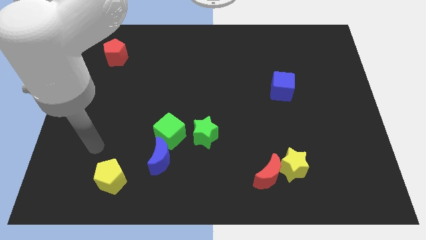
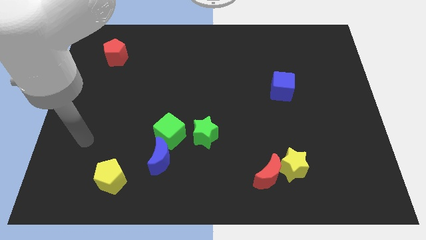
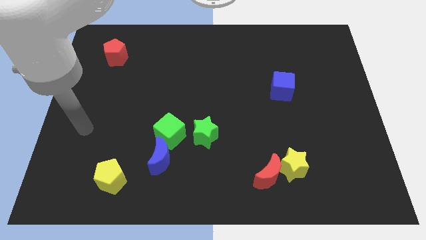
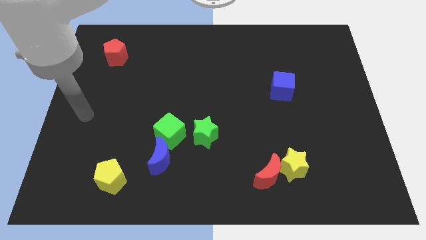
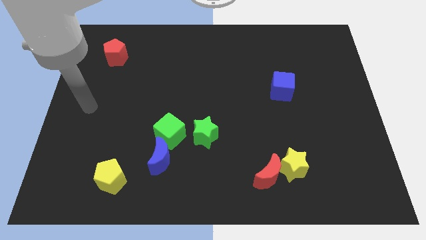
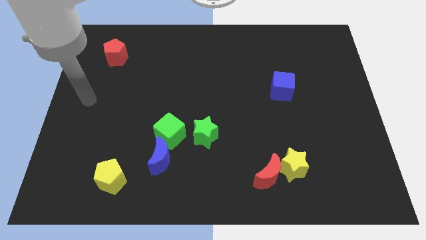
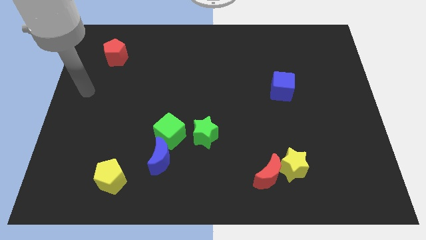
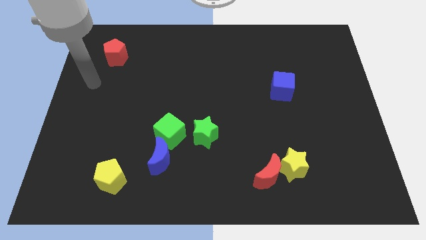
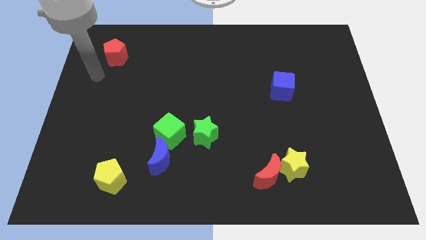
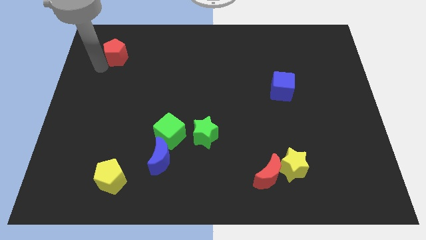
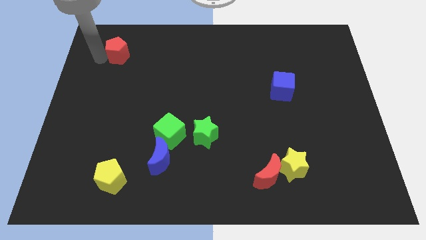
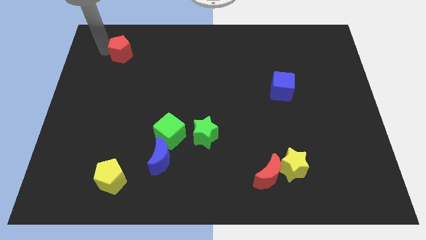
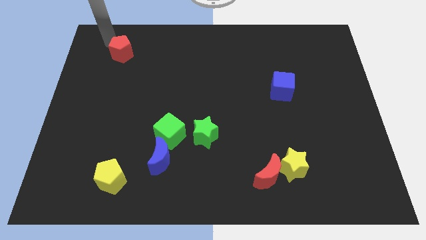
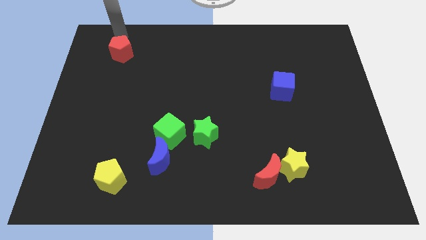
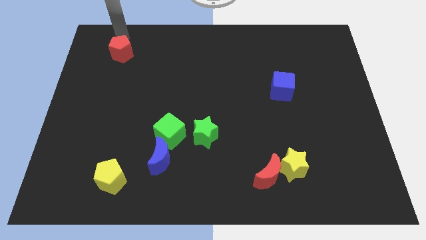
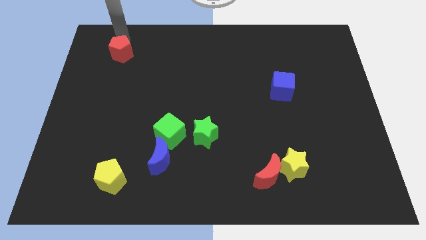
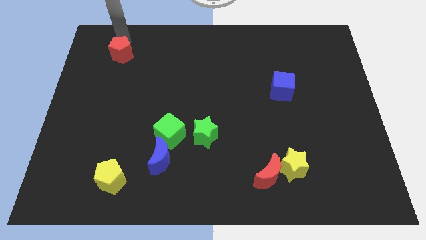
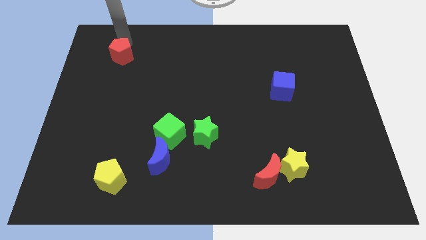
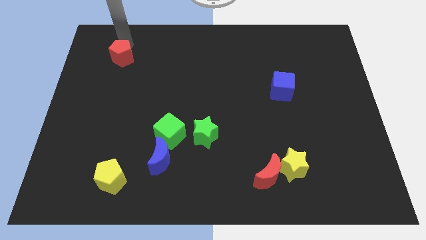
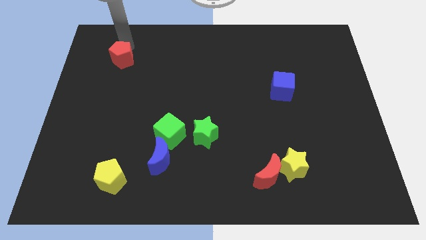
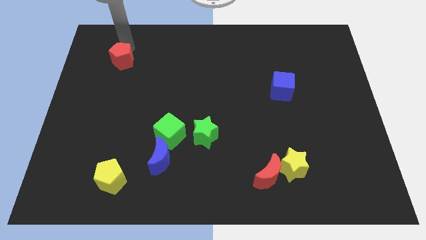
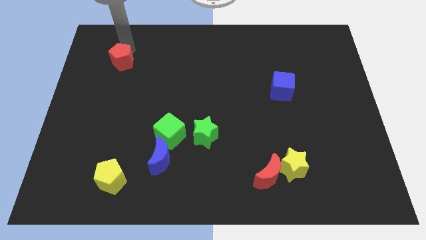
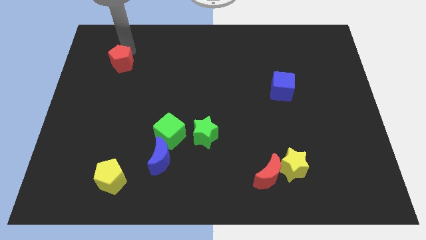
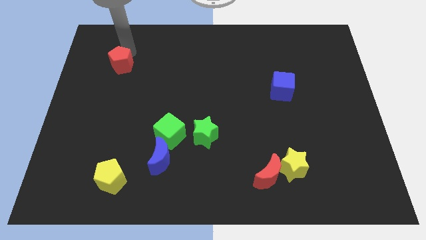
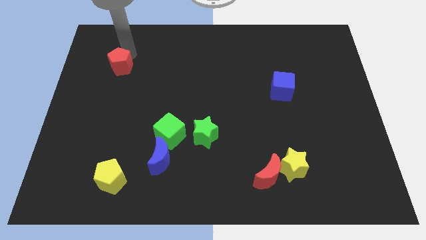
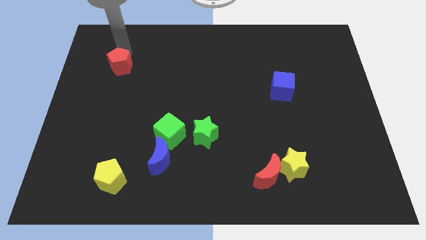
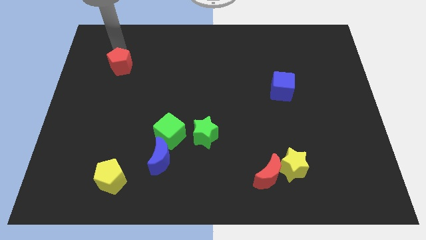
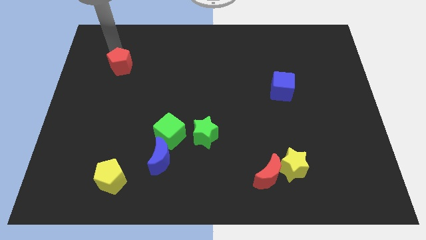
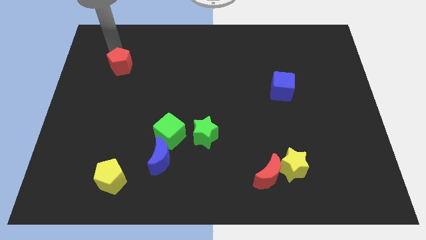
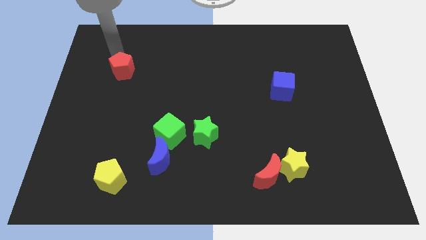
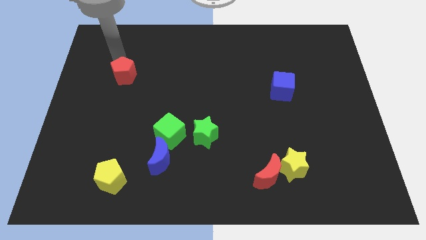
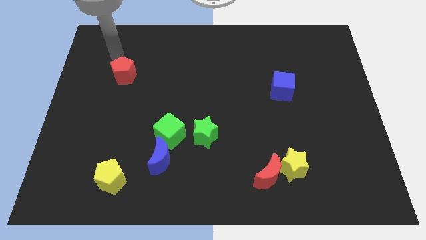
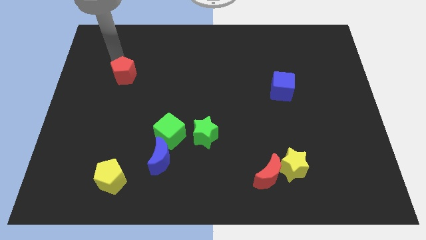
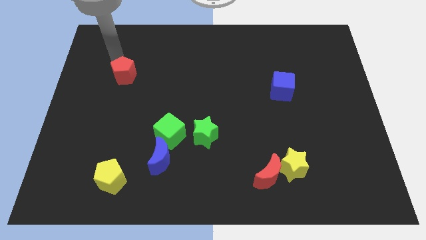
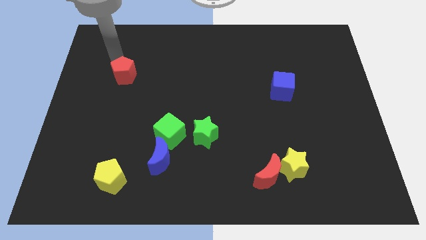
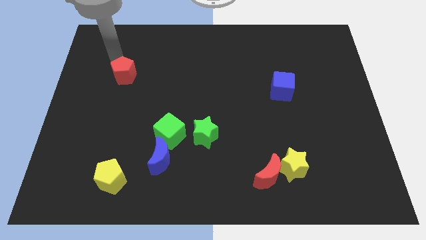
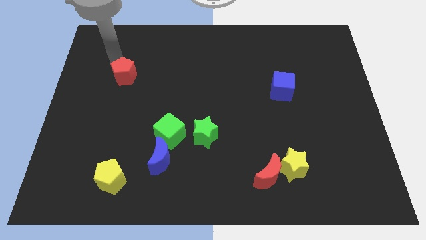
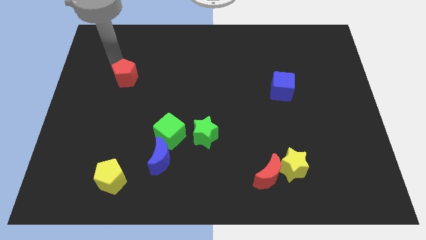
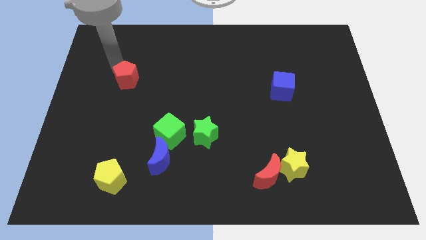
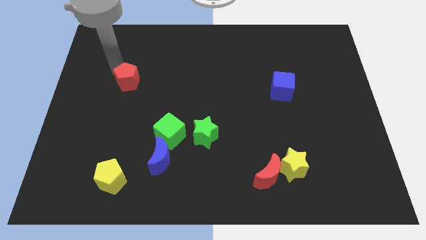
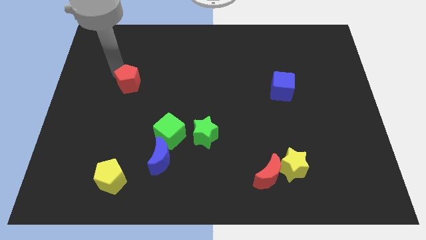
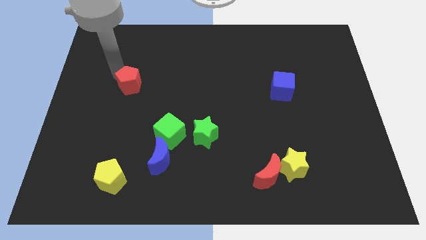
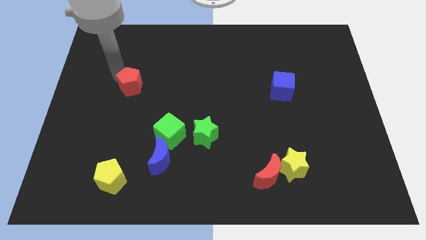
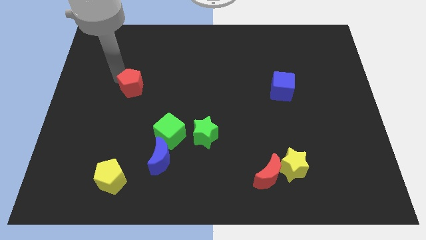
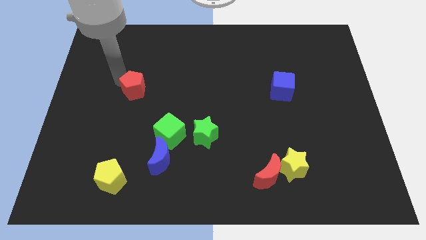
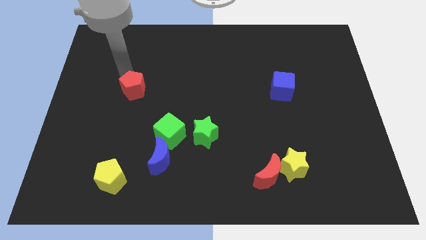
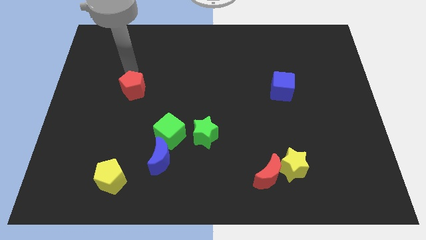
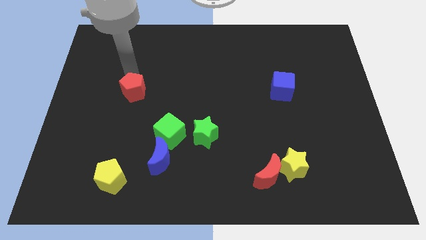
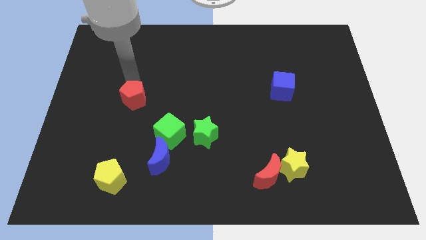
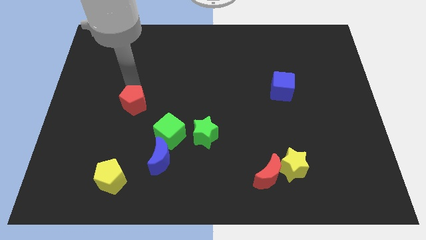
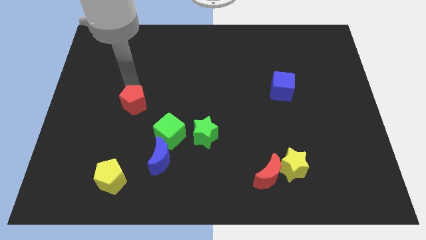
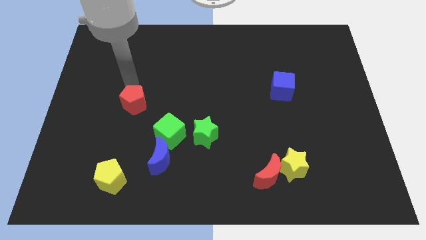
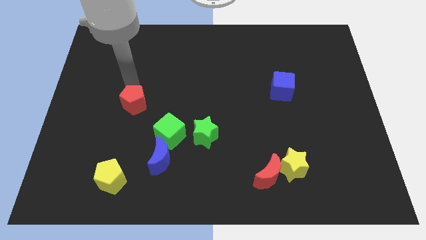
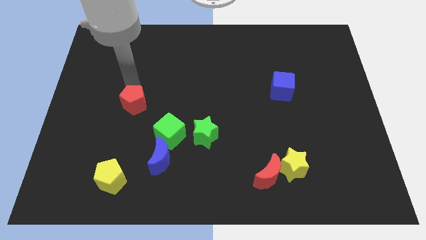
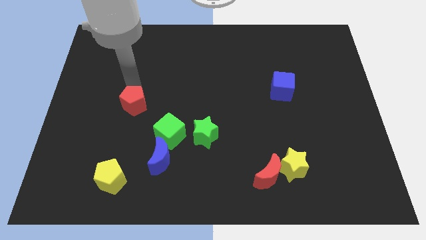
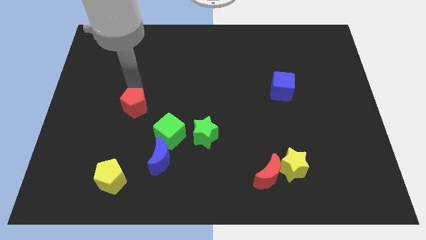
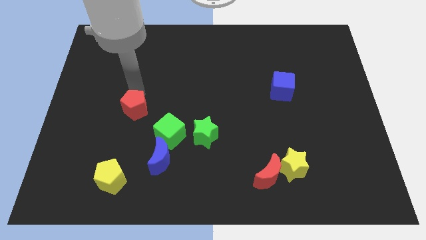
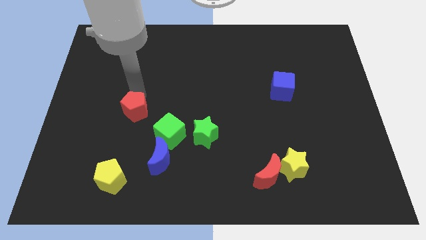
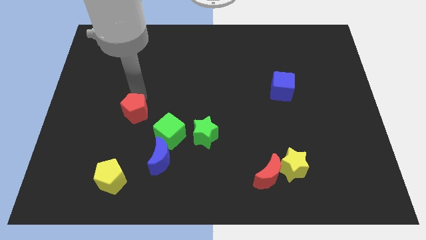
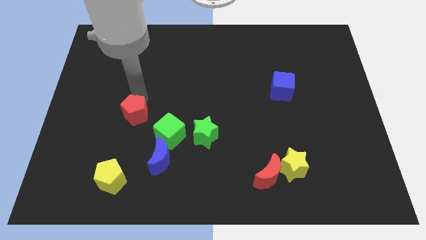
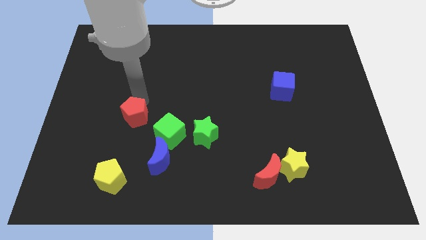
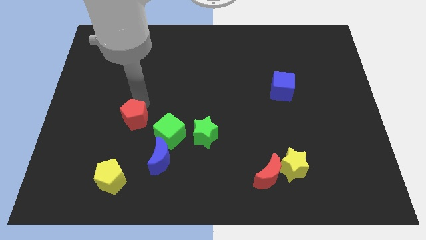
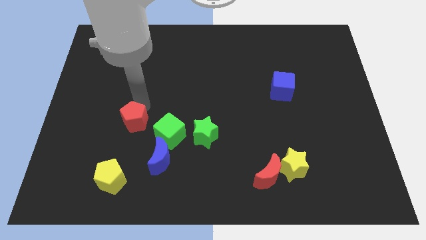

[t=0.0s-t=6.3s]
move the red pentagon to the top left side of the blue moon

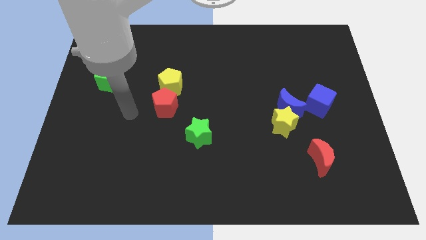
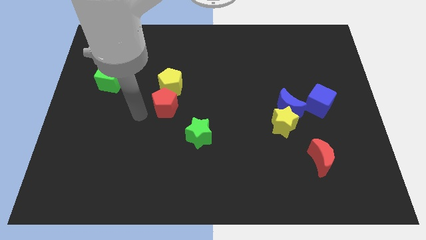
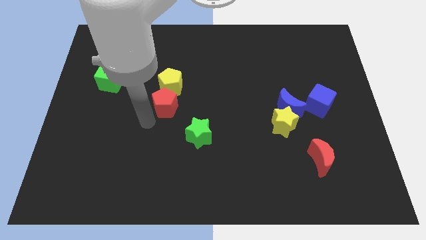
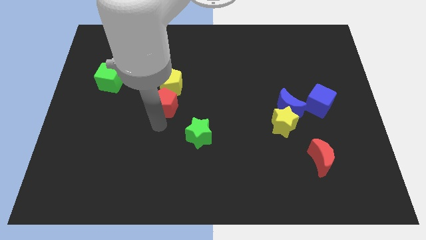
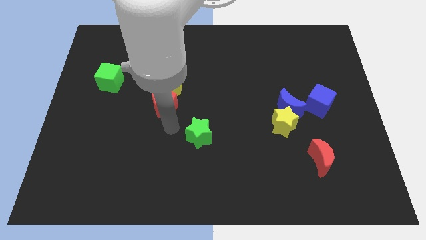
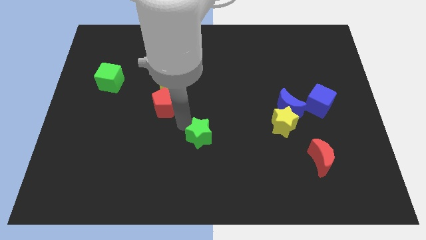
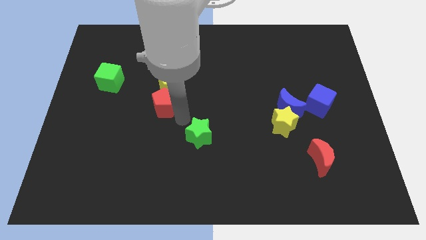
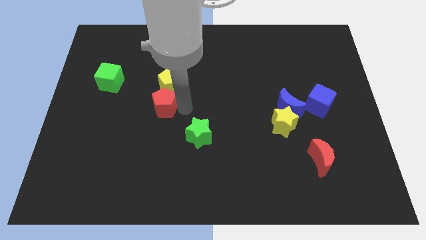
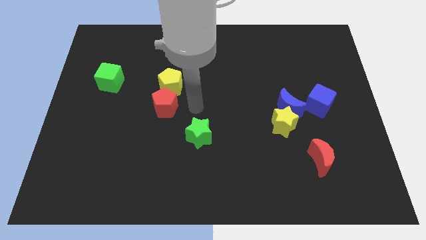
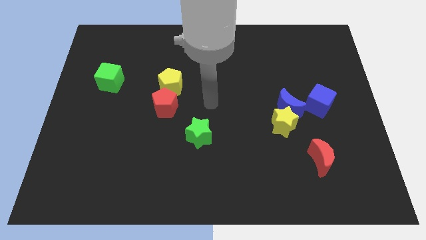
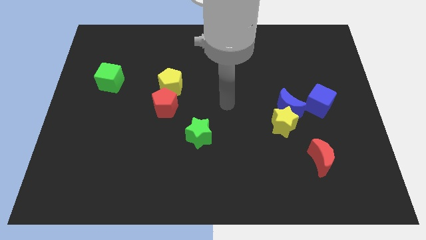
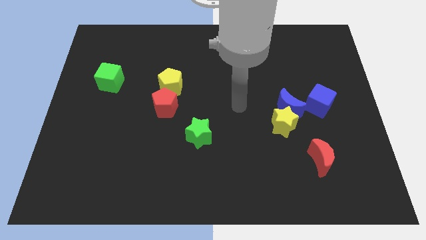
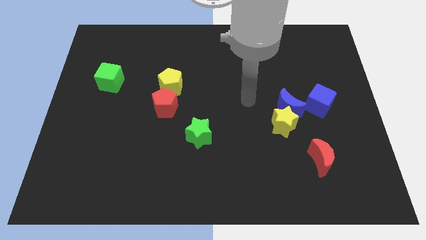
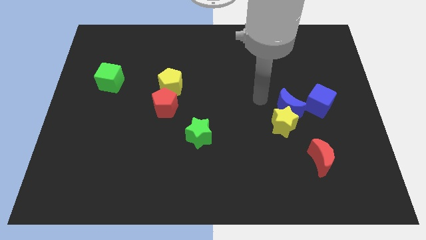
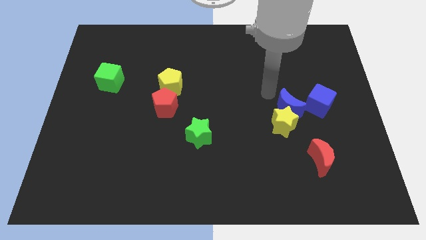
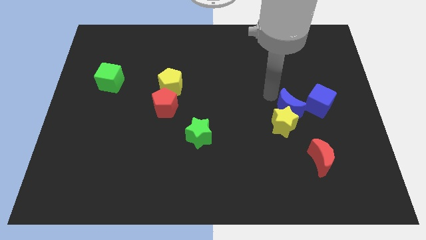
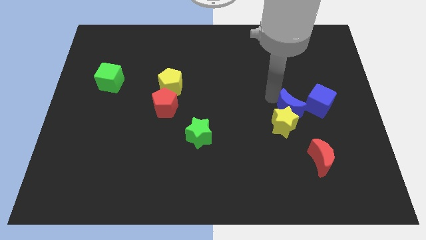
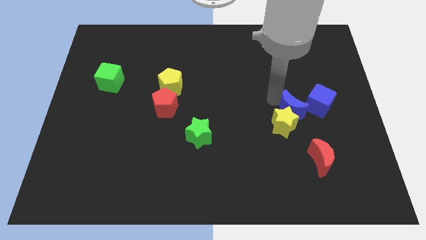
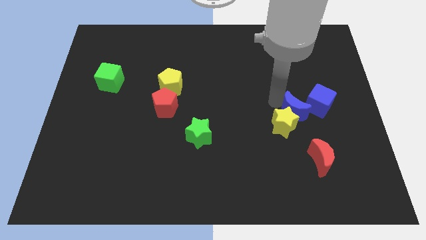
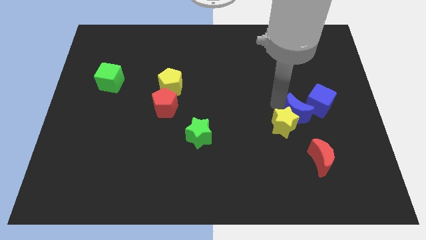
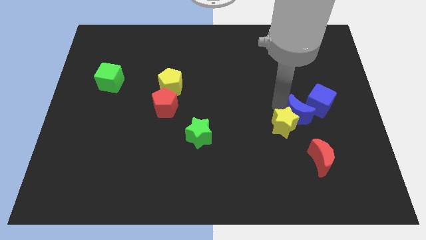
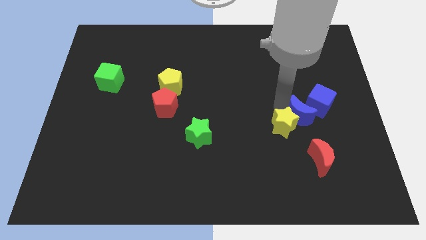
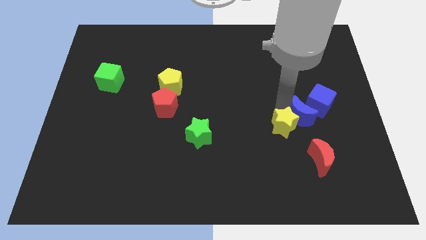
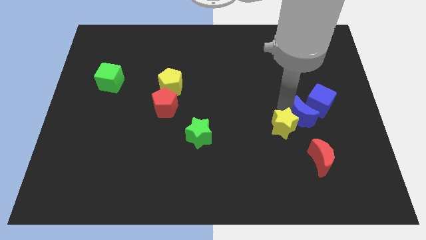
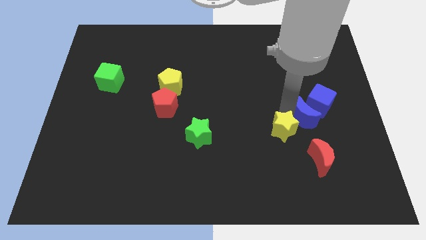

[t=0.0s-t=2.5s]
push the blue moon to the bottom side of the blue cube
